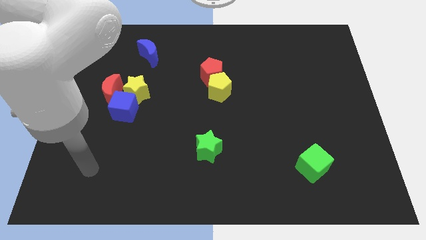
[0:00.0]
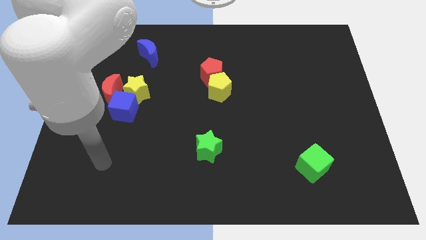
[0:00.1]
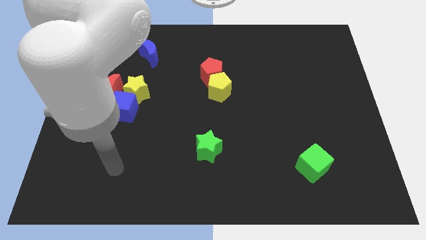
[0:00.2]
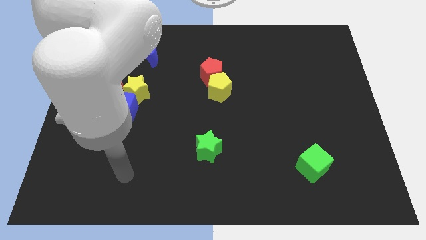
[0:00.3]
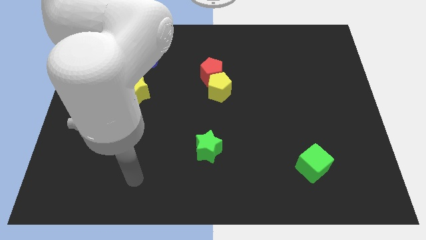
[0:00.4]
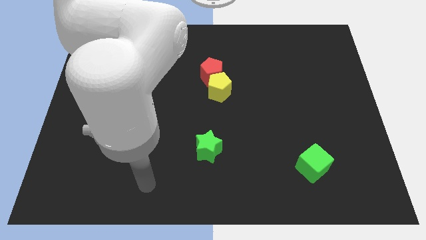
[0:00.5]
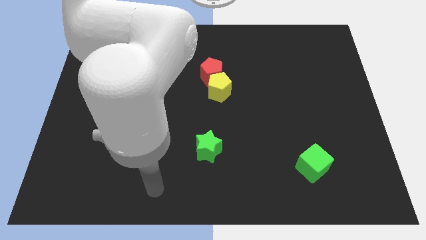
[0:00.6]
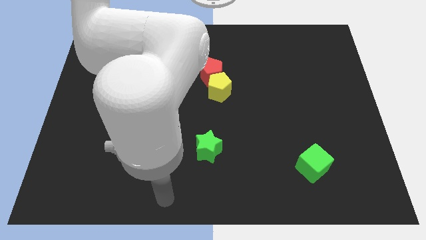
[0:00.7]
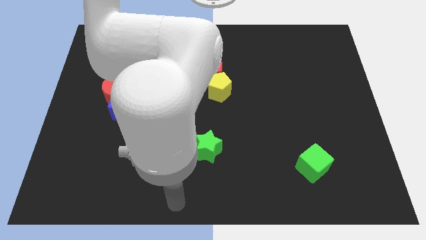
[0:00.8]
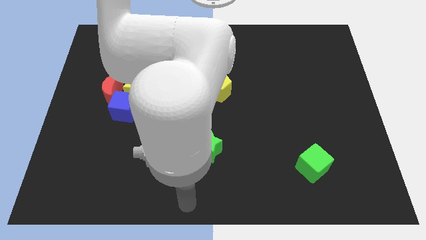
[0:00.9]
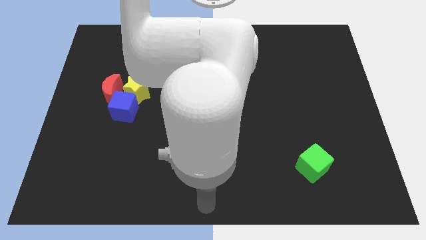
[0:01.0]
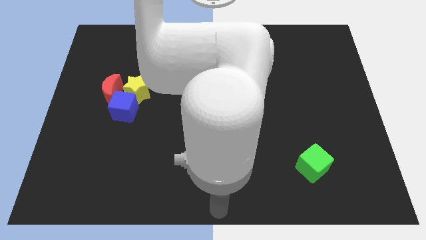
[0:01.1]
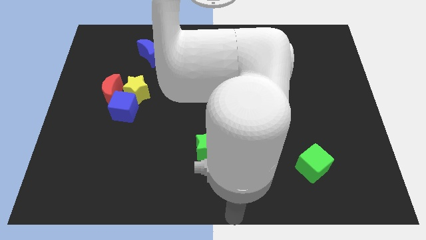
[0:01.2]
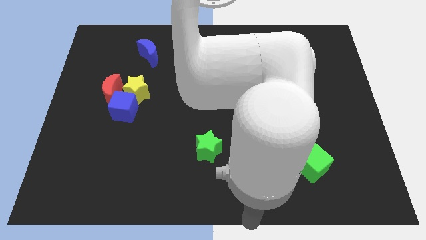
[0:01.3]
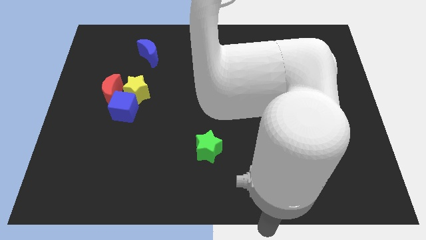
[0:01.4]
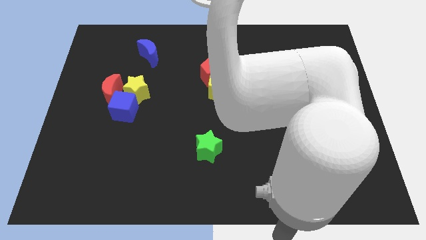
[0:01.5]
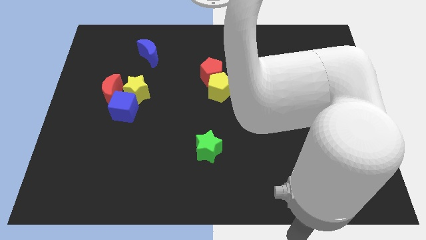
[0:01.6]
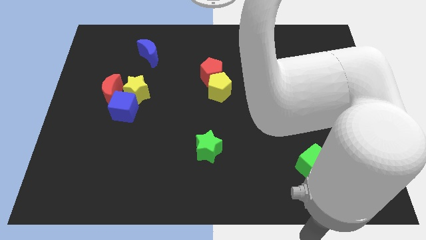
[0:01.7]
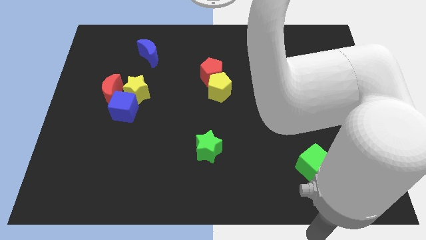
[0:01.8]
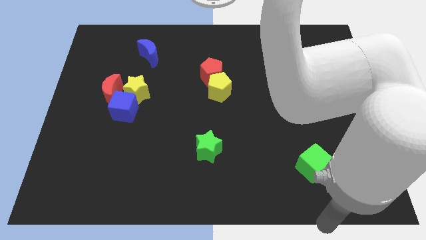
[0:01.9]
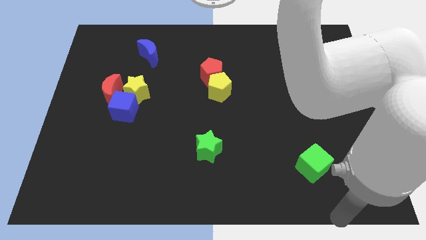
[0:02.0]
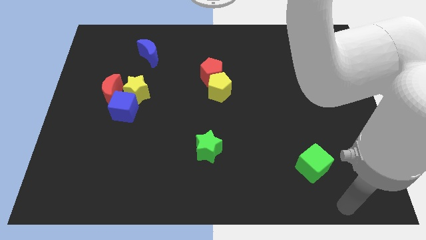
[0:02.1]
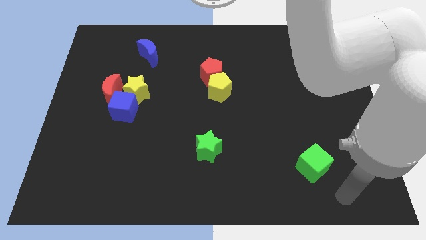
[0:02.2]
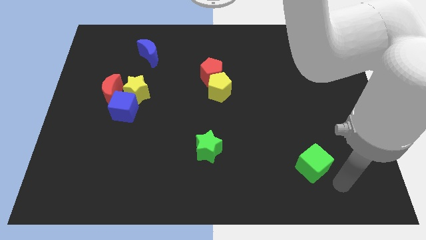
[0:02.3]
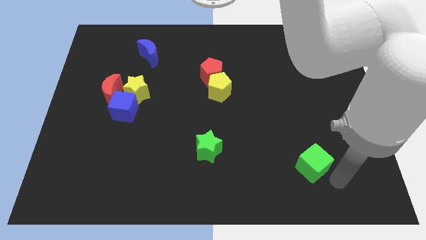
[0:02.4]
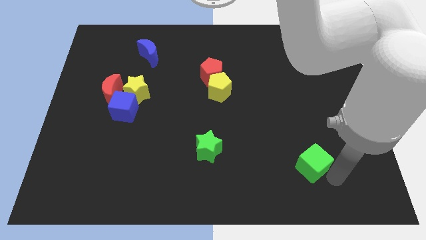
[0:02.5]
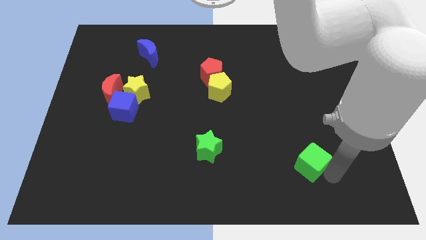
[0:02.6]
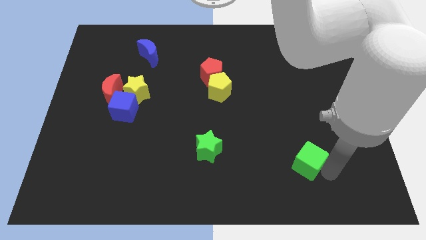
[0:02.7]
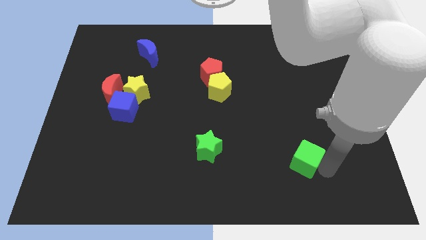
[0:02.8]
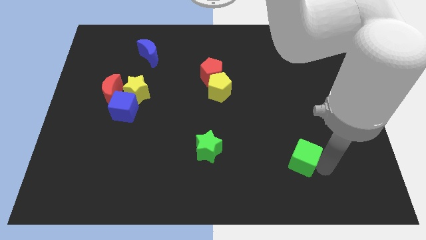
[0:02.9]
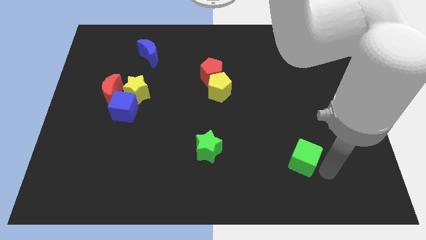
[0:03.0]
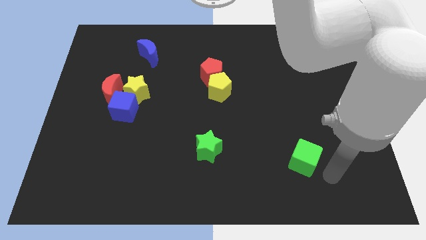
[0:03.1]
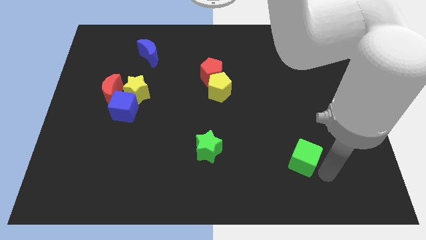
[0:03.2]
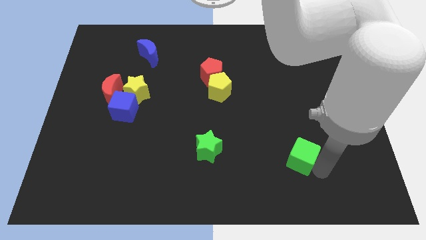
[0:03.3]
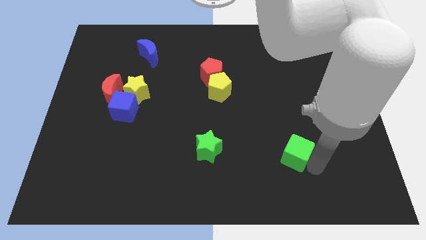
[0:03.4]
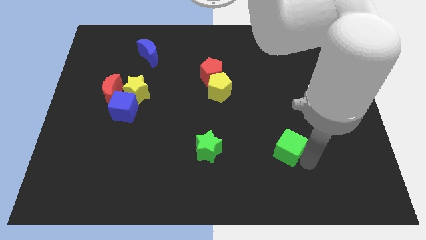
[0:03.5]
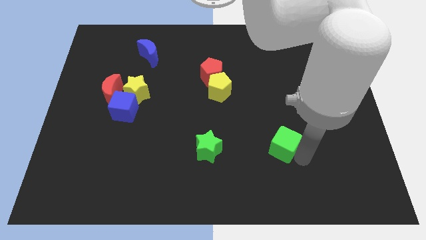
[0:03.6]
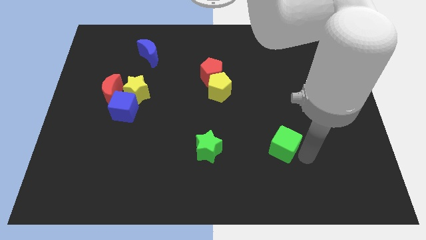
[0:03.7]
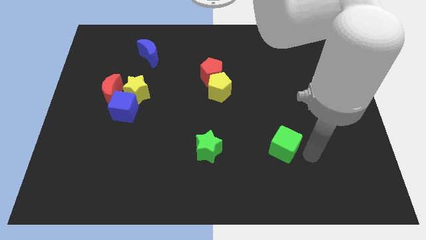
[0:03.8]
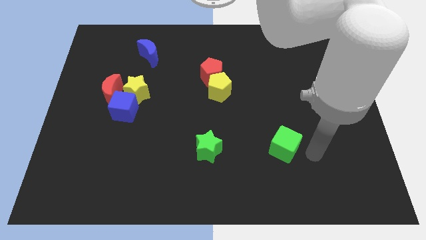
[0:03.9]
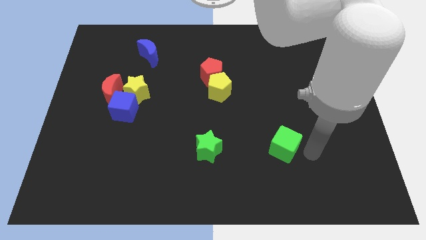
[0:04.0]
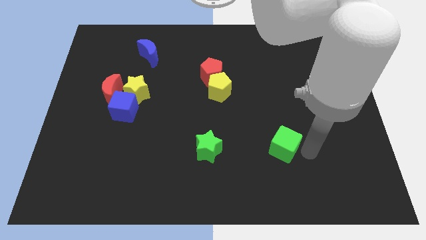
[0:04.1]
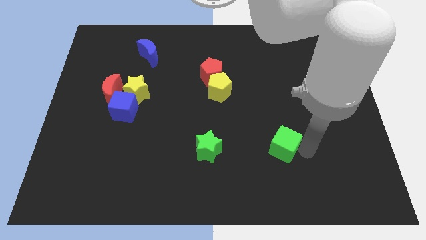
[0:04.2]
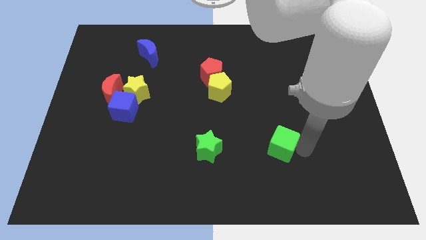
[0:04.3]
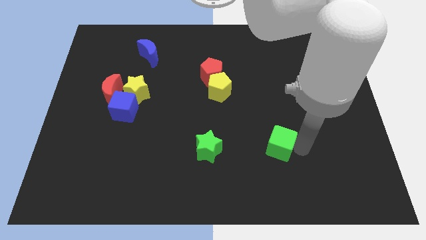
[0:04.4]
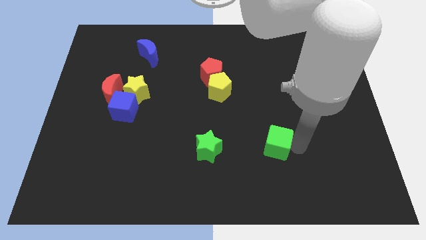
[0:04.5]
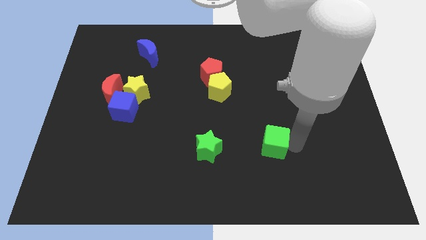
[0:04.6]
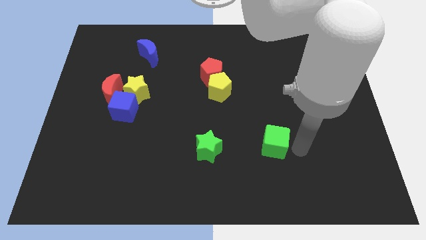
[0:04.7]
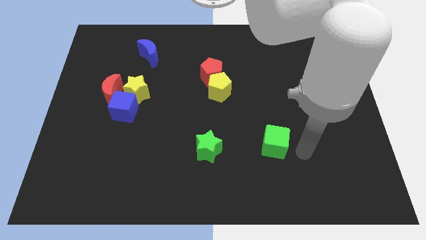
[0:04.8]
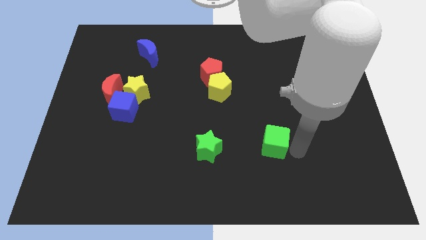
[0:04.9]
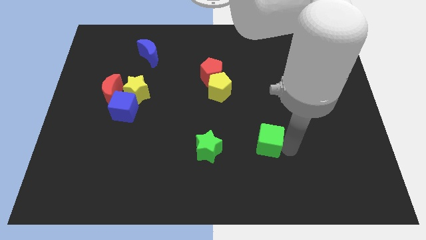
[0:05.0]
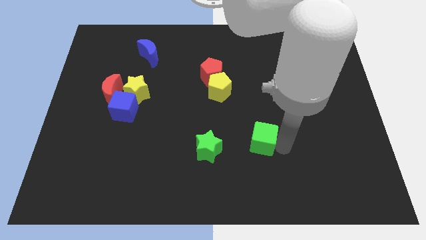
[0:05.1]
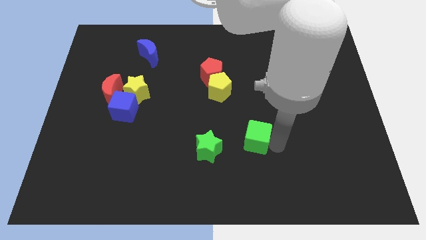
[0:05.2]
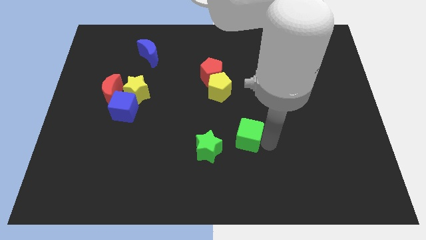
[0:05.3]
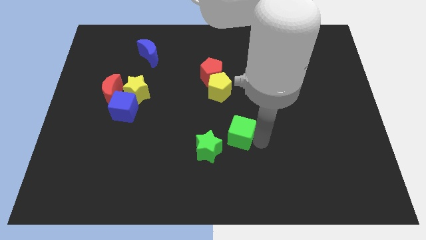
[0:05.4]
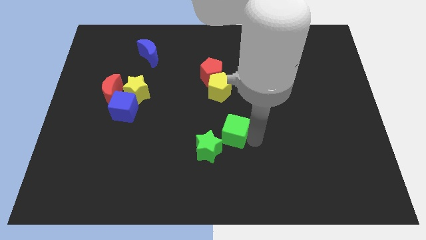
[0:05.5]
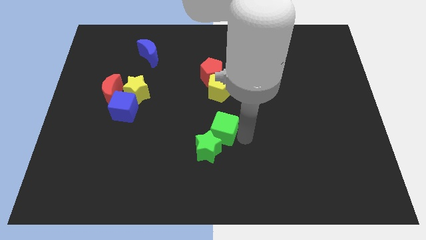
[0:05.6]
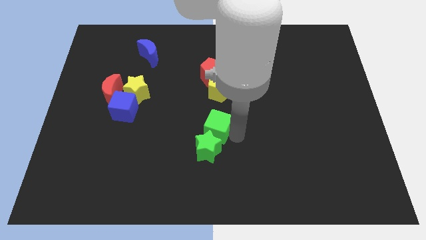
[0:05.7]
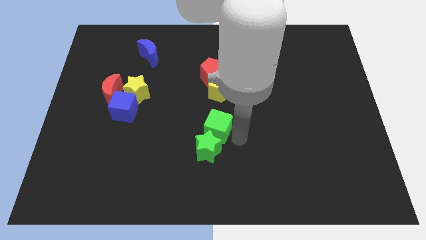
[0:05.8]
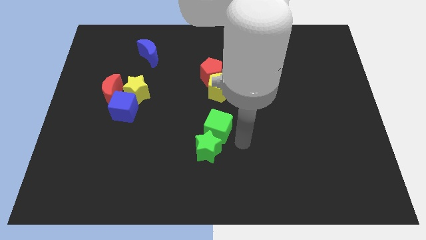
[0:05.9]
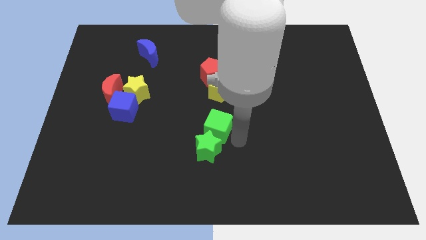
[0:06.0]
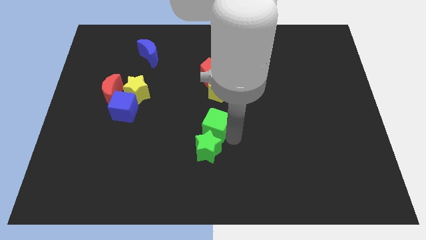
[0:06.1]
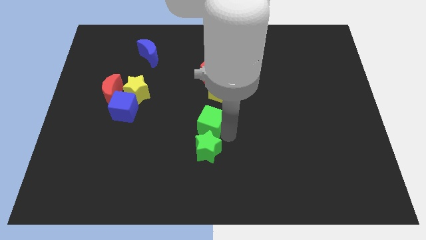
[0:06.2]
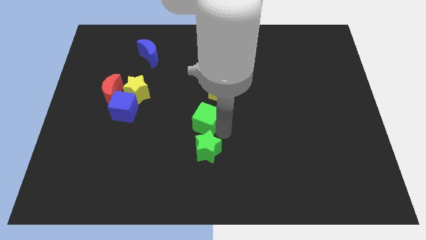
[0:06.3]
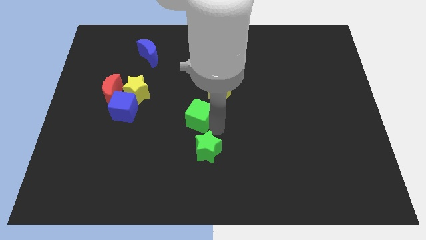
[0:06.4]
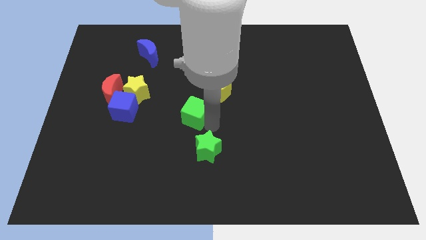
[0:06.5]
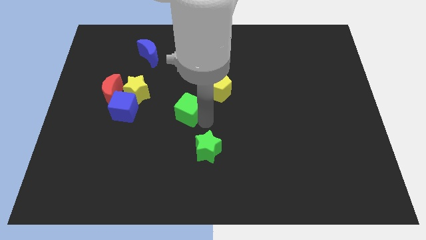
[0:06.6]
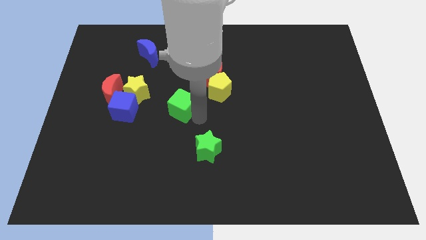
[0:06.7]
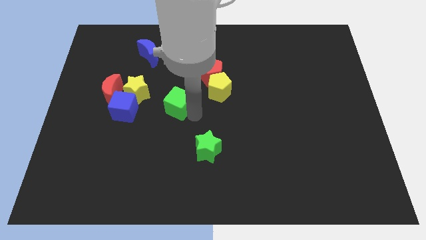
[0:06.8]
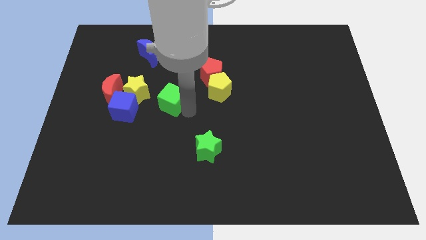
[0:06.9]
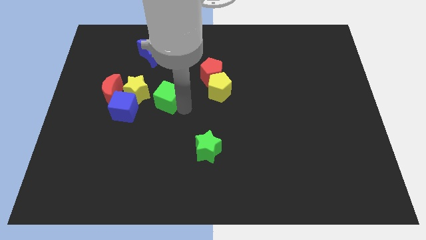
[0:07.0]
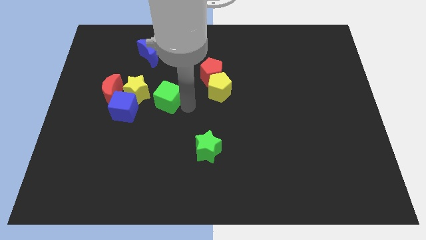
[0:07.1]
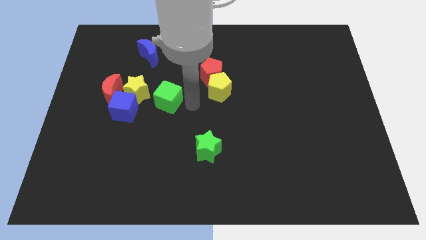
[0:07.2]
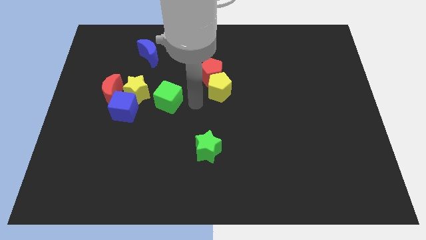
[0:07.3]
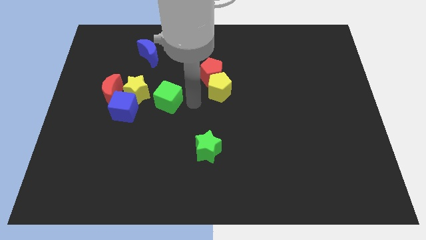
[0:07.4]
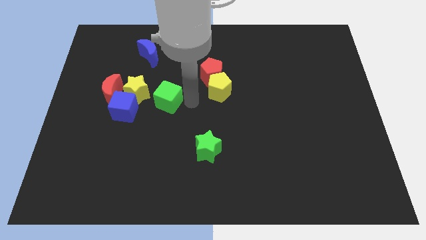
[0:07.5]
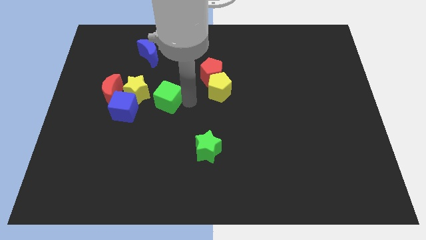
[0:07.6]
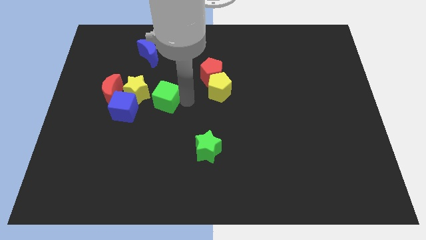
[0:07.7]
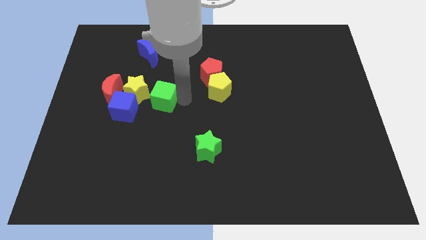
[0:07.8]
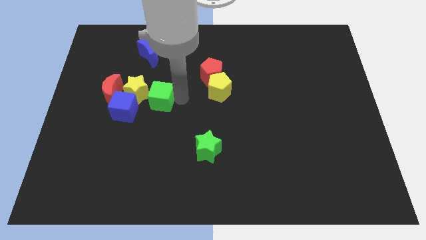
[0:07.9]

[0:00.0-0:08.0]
push the green cube close to the yellow star
